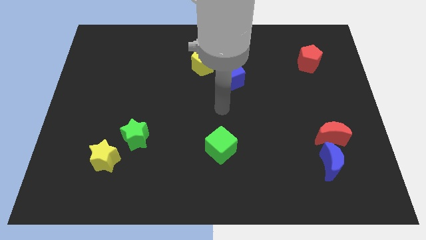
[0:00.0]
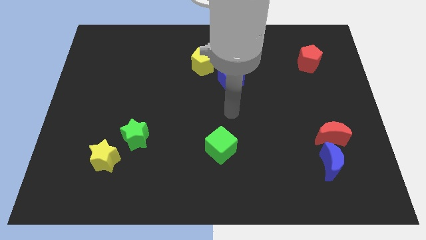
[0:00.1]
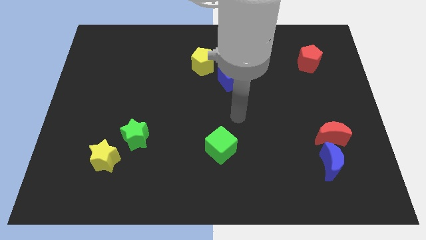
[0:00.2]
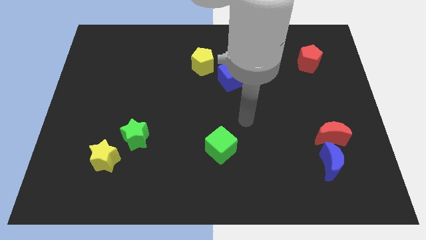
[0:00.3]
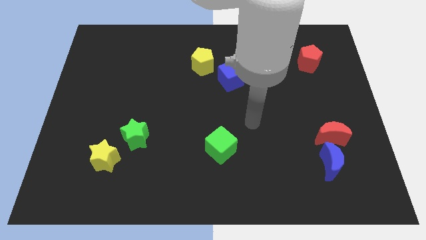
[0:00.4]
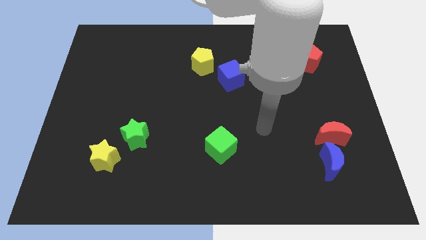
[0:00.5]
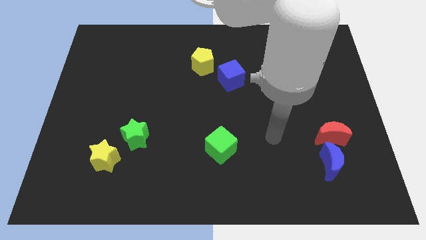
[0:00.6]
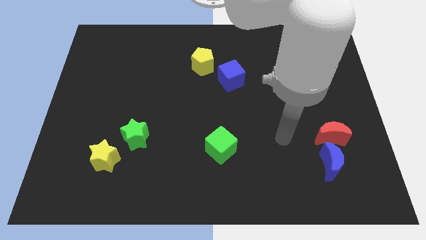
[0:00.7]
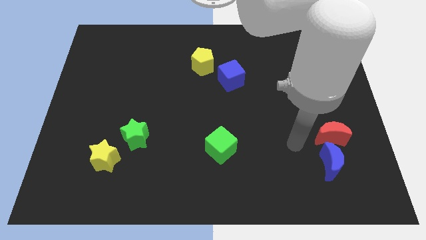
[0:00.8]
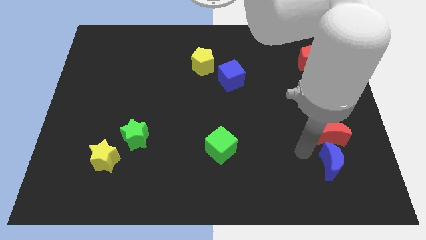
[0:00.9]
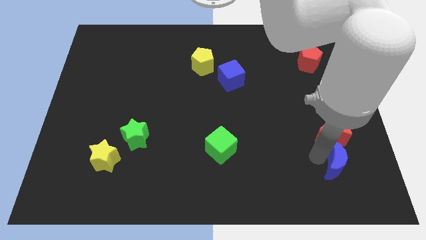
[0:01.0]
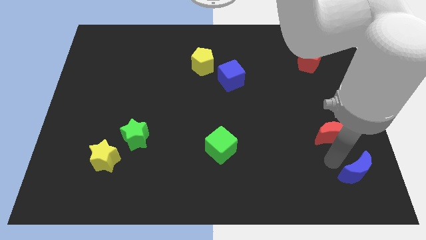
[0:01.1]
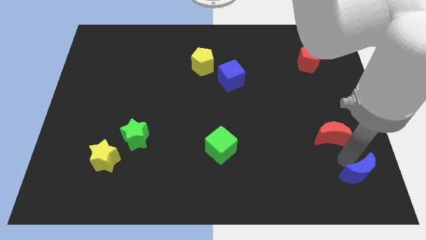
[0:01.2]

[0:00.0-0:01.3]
separate the red moon from the blue moon

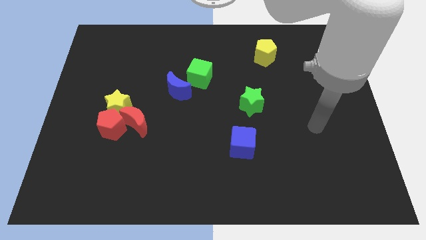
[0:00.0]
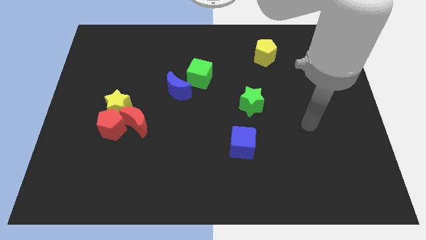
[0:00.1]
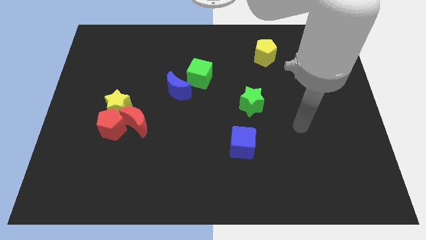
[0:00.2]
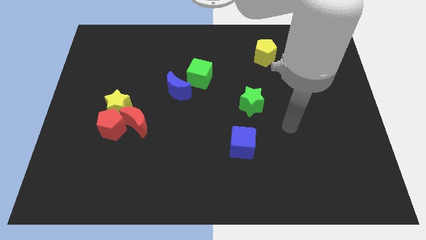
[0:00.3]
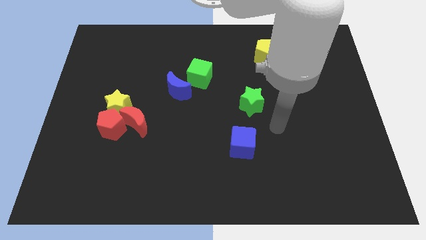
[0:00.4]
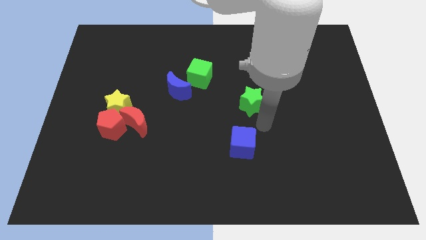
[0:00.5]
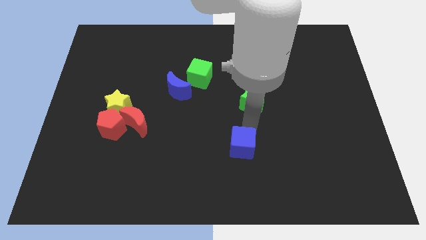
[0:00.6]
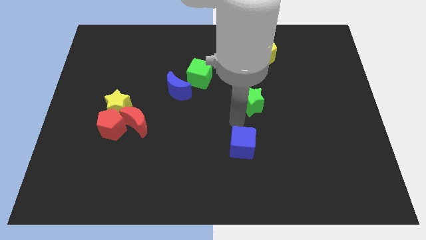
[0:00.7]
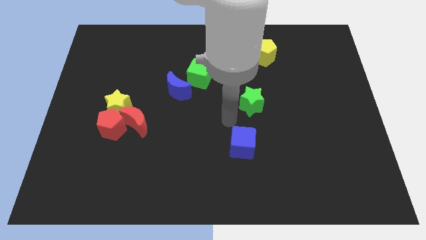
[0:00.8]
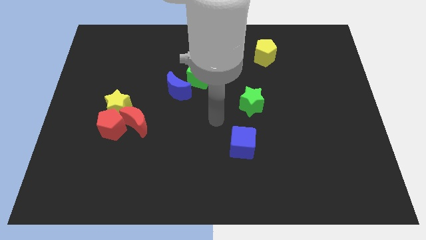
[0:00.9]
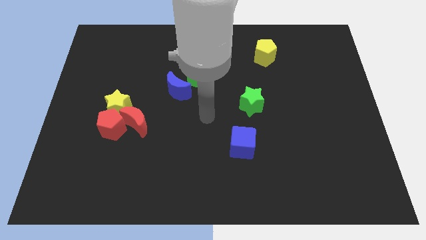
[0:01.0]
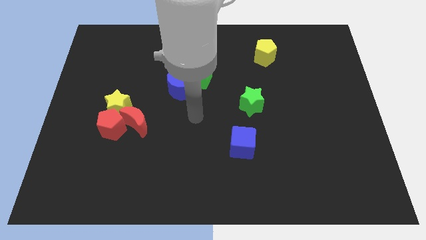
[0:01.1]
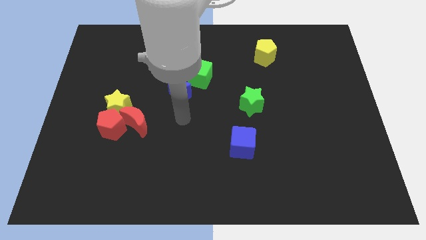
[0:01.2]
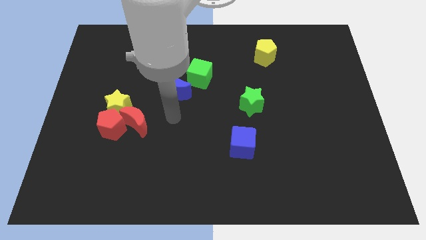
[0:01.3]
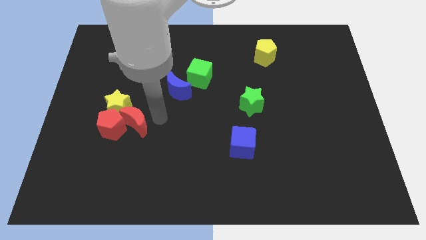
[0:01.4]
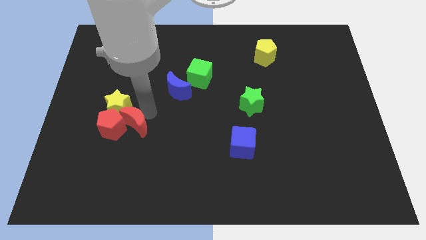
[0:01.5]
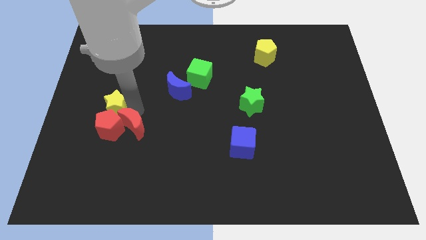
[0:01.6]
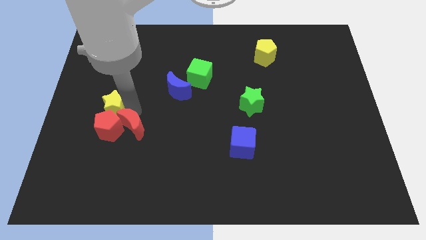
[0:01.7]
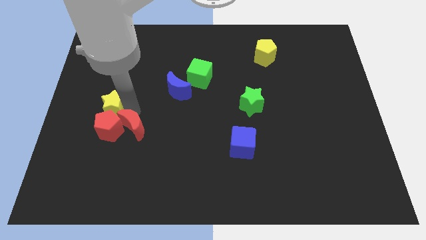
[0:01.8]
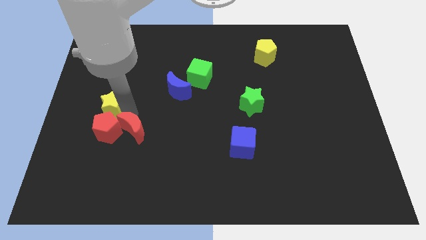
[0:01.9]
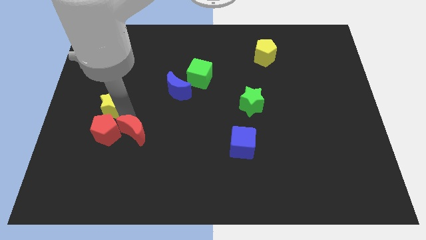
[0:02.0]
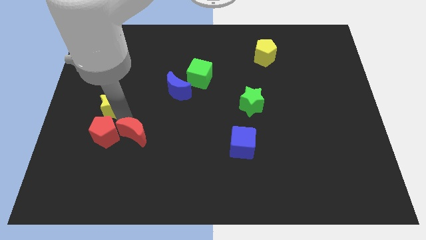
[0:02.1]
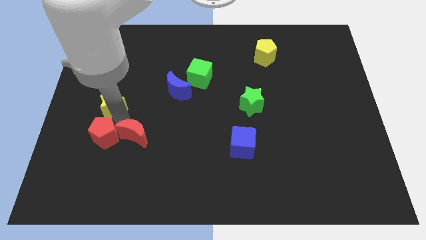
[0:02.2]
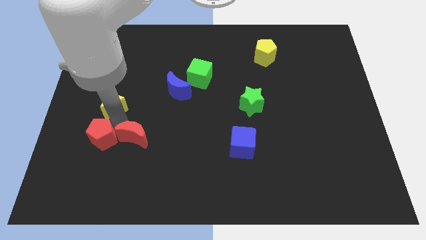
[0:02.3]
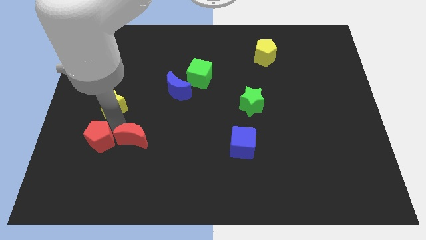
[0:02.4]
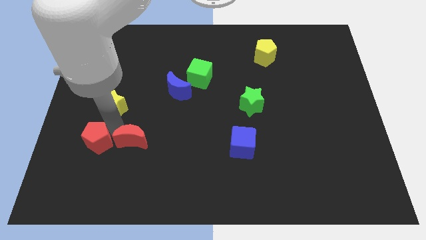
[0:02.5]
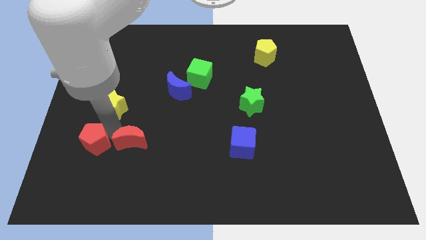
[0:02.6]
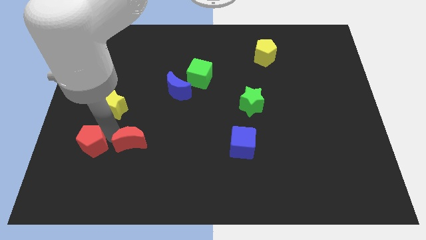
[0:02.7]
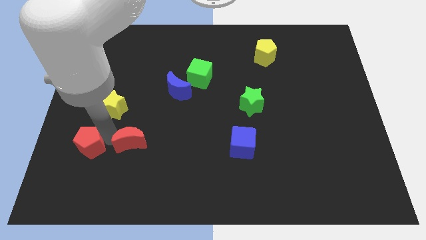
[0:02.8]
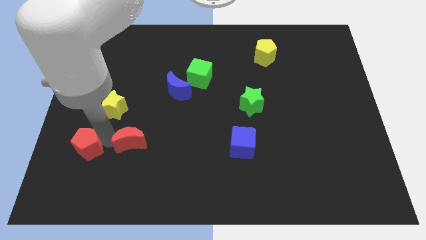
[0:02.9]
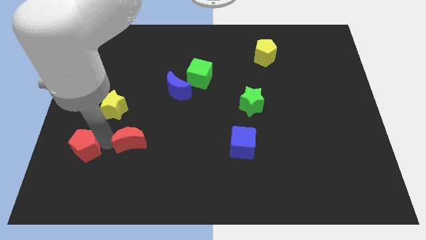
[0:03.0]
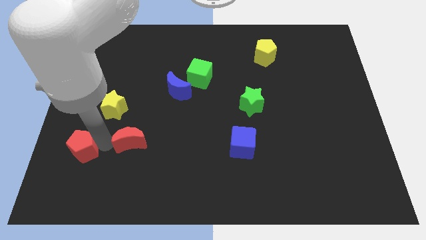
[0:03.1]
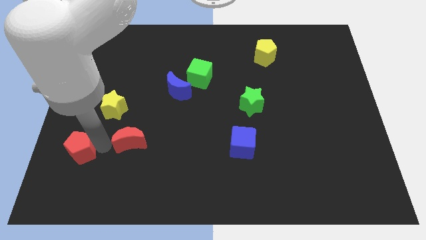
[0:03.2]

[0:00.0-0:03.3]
pull the red pentagon apart from the yellow star and red moon

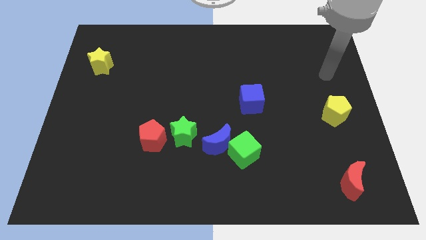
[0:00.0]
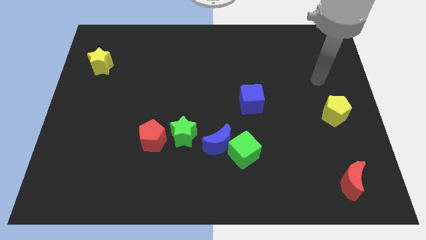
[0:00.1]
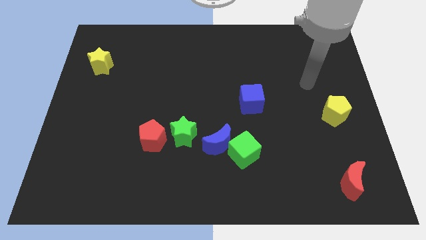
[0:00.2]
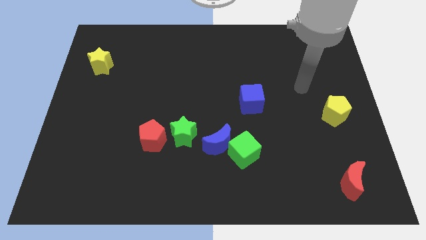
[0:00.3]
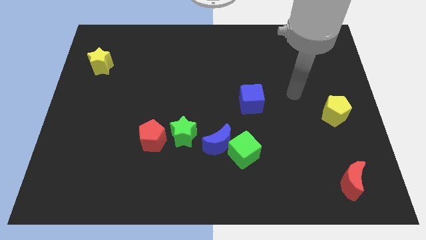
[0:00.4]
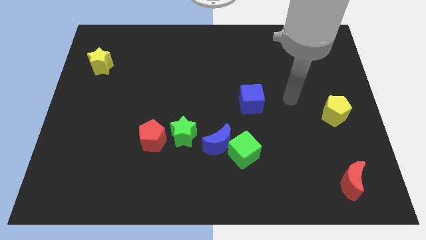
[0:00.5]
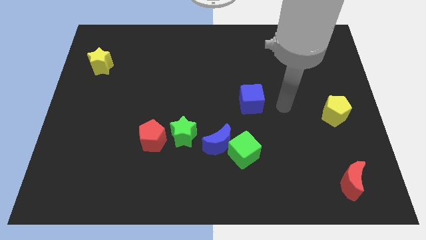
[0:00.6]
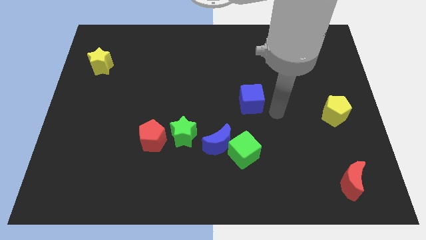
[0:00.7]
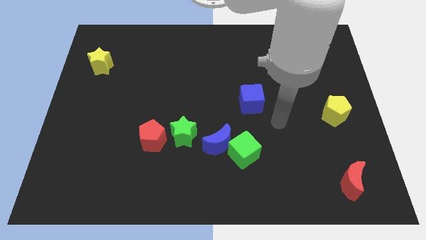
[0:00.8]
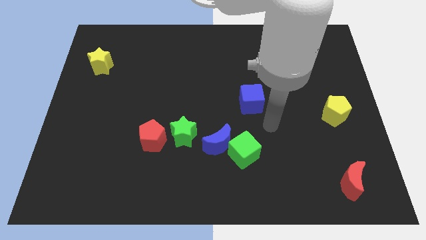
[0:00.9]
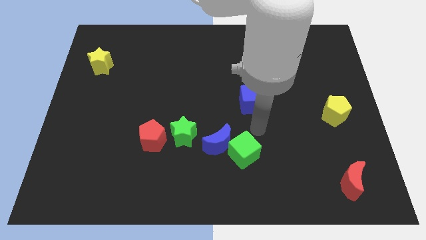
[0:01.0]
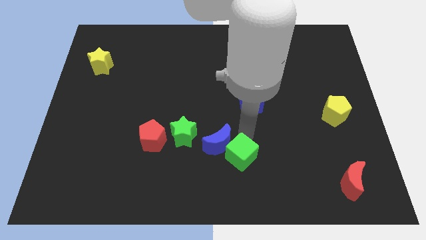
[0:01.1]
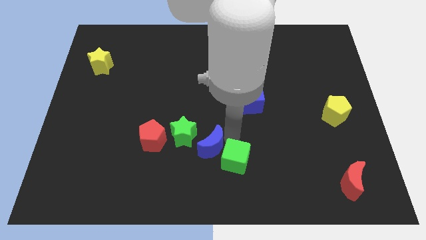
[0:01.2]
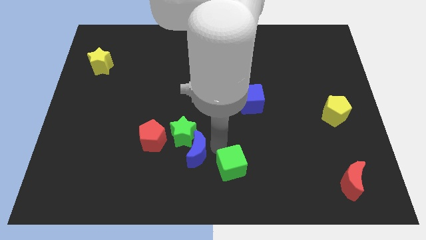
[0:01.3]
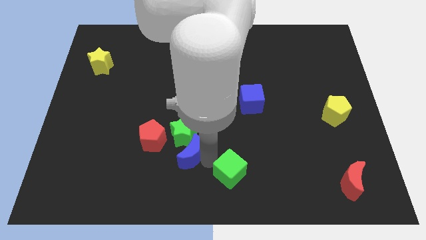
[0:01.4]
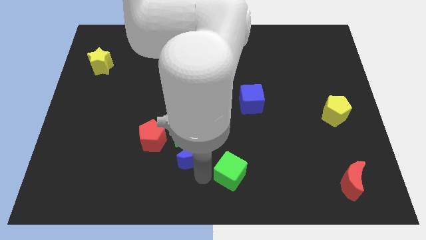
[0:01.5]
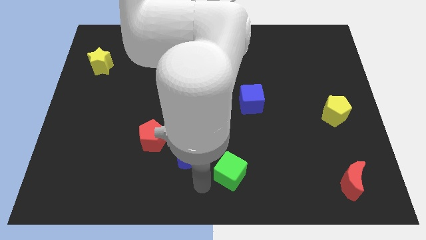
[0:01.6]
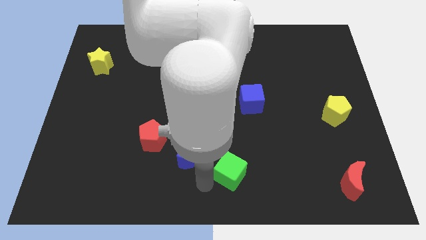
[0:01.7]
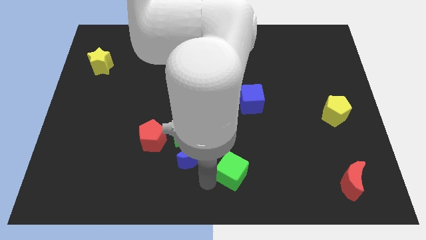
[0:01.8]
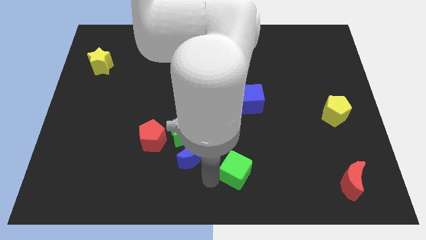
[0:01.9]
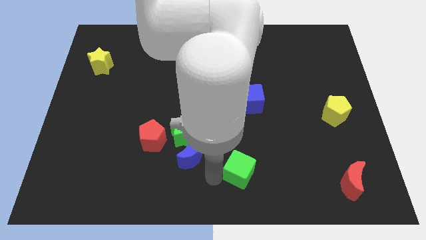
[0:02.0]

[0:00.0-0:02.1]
separate the green cube from the blue moon

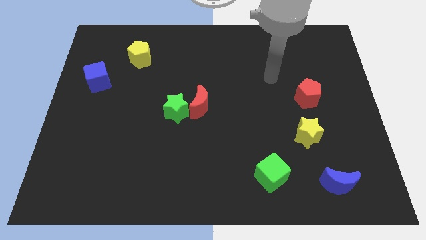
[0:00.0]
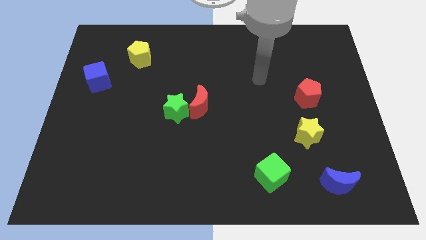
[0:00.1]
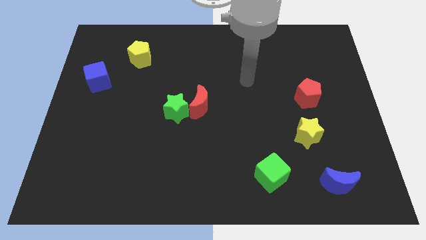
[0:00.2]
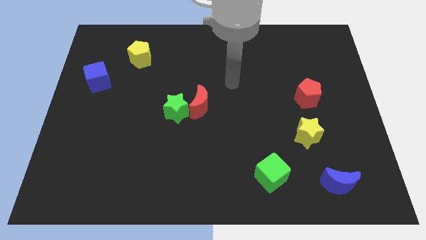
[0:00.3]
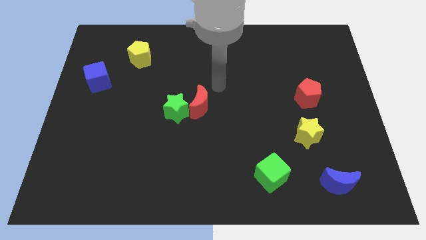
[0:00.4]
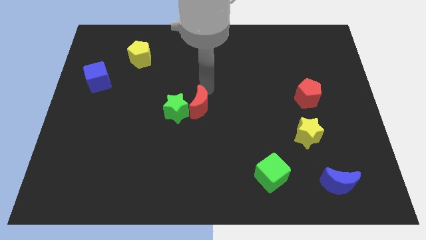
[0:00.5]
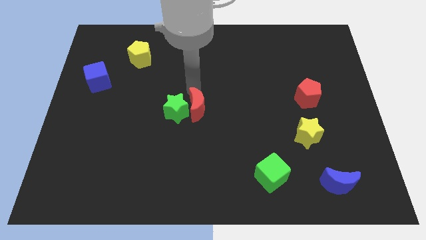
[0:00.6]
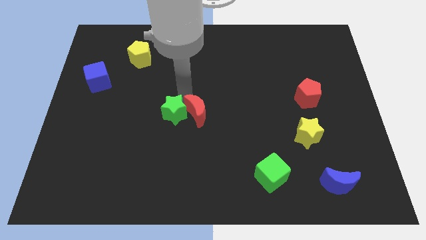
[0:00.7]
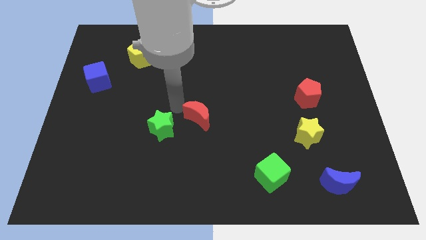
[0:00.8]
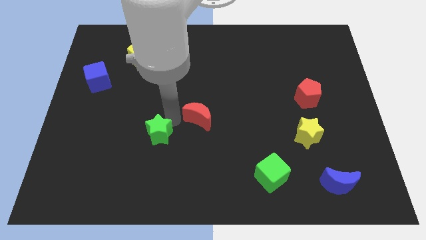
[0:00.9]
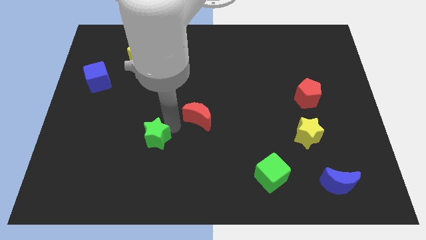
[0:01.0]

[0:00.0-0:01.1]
pull the red moon apart from the green star

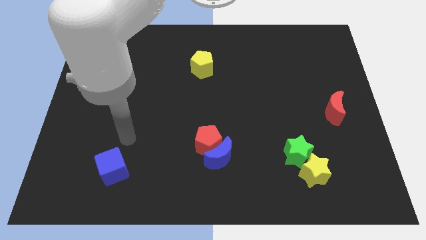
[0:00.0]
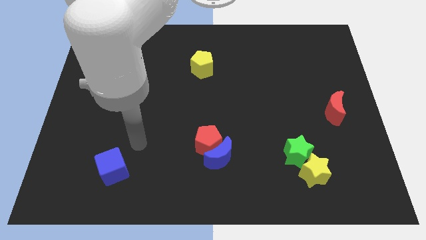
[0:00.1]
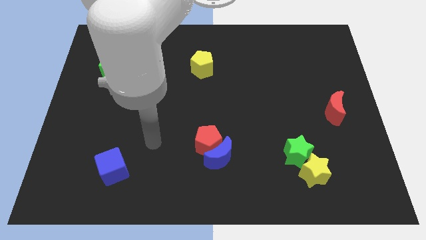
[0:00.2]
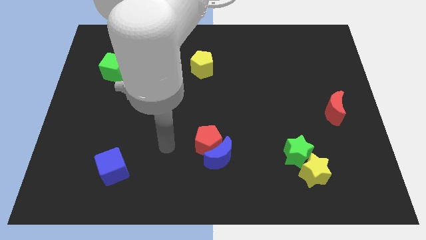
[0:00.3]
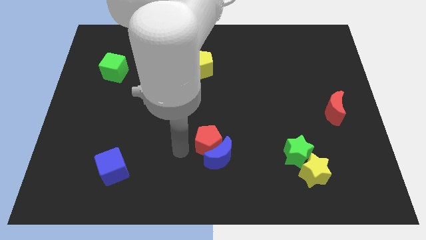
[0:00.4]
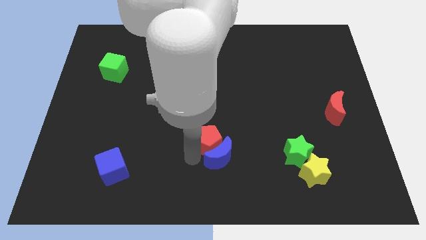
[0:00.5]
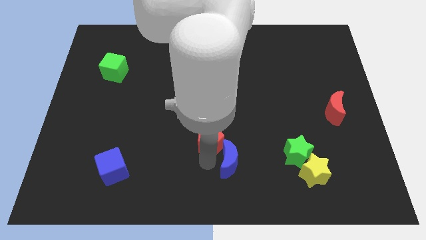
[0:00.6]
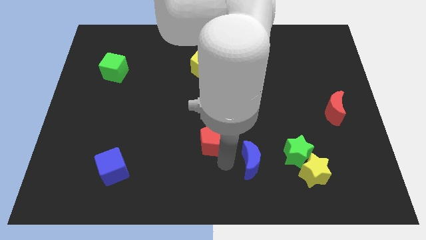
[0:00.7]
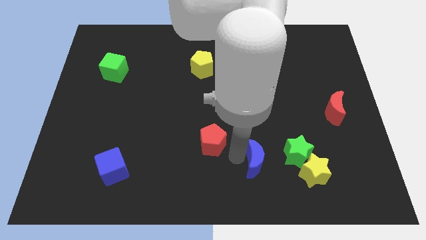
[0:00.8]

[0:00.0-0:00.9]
pull the red pentagon apart from the blue moon

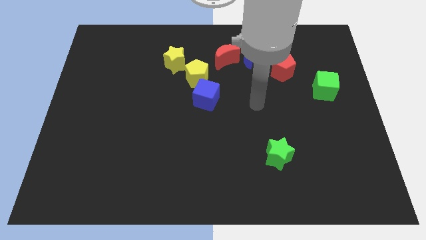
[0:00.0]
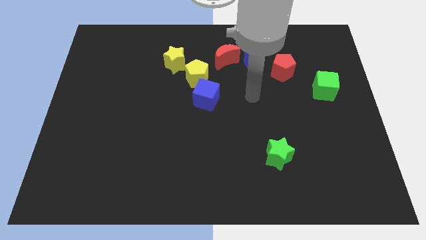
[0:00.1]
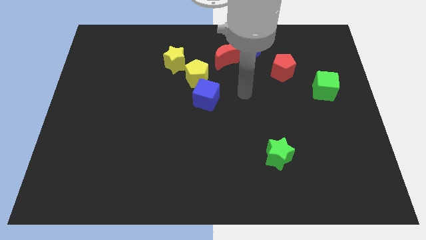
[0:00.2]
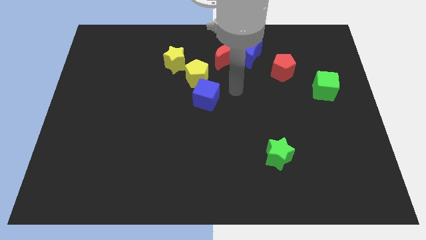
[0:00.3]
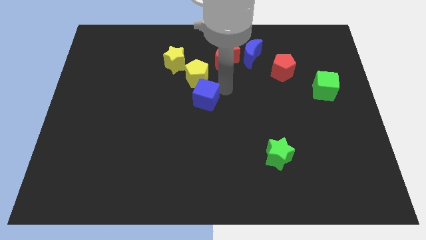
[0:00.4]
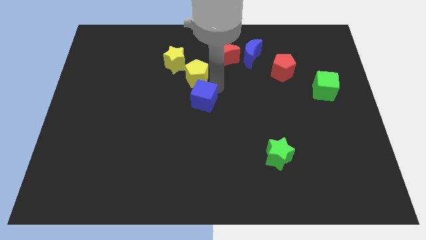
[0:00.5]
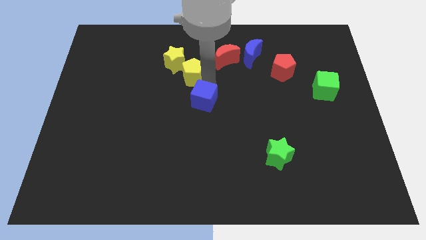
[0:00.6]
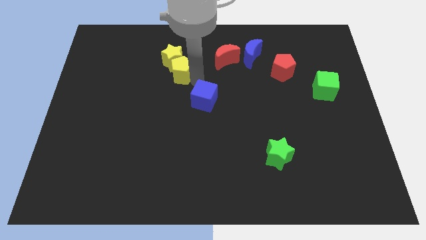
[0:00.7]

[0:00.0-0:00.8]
pull the blue cube apart from the yellow pentagon

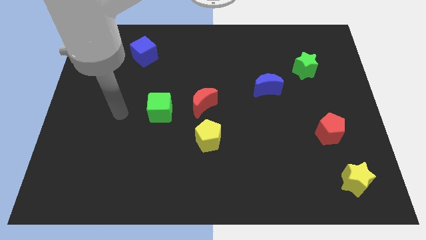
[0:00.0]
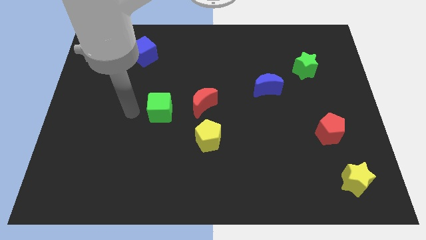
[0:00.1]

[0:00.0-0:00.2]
separate the yellow pentagon from the red moon
